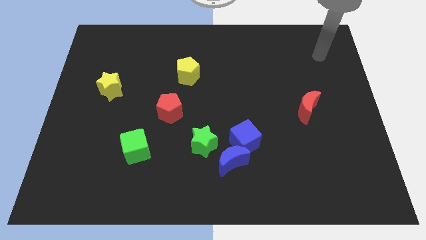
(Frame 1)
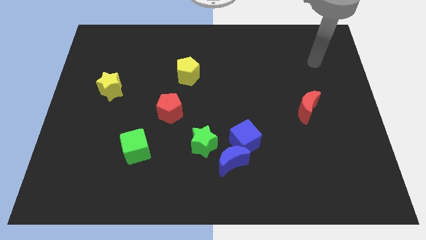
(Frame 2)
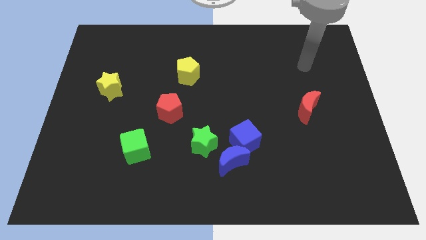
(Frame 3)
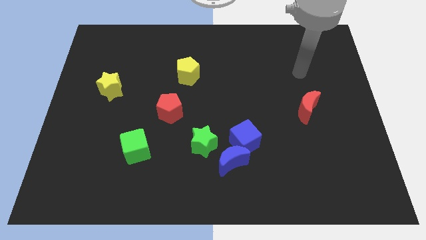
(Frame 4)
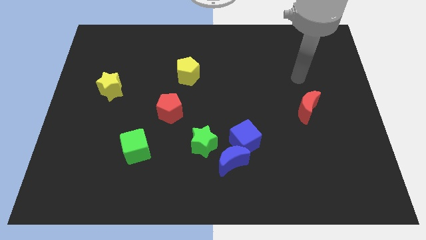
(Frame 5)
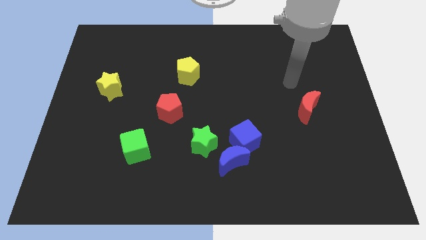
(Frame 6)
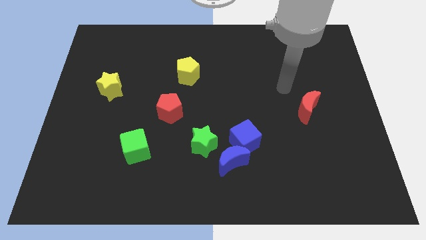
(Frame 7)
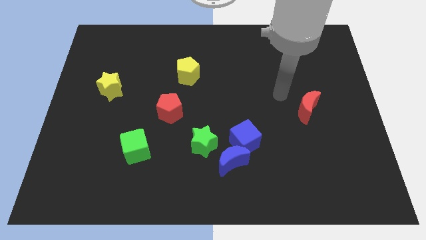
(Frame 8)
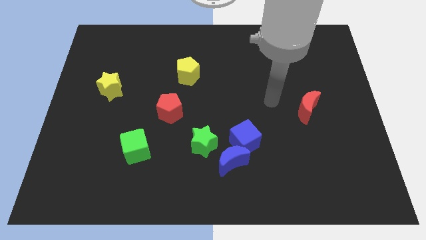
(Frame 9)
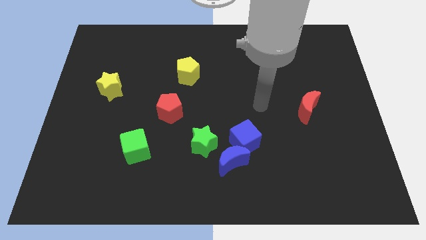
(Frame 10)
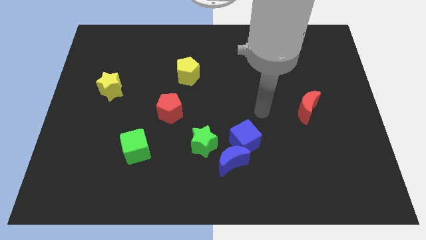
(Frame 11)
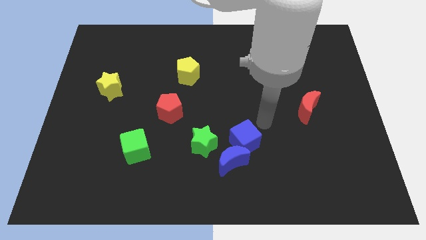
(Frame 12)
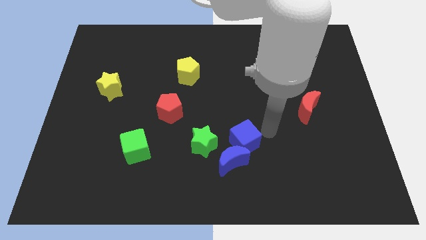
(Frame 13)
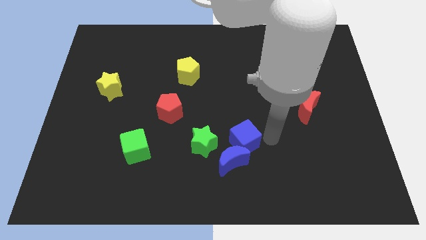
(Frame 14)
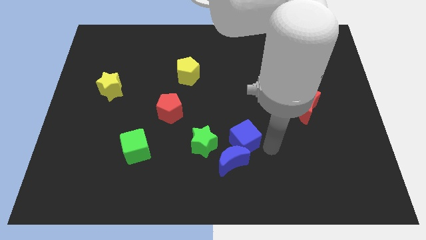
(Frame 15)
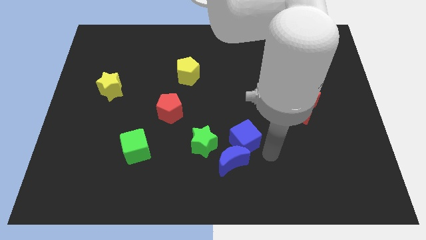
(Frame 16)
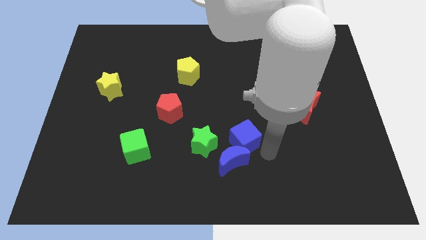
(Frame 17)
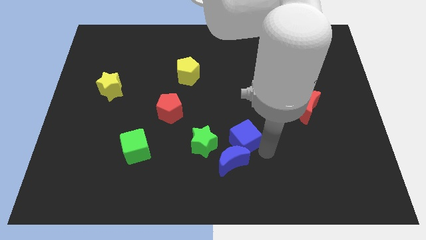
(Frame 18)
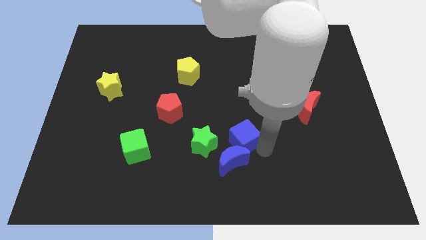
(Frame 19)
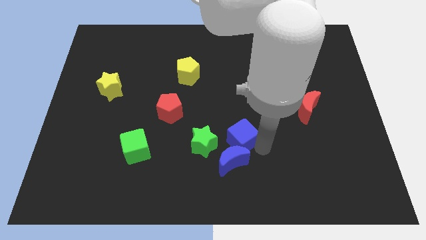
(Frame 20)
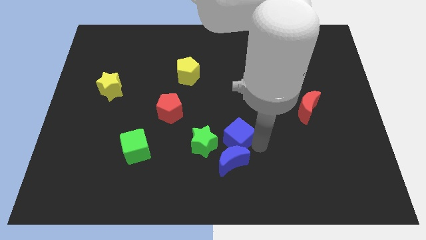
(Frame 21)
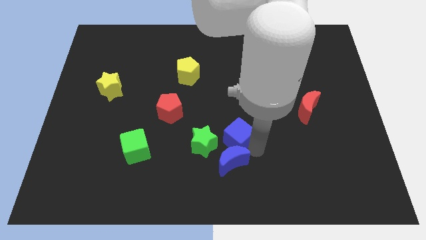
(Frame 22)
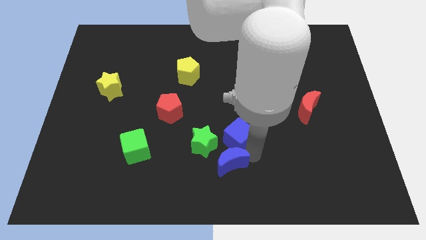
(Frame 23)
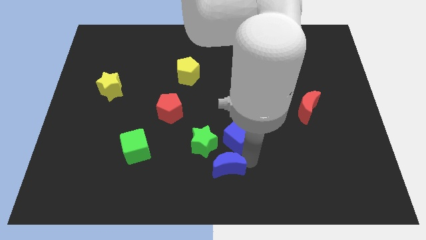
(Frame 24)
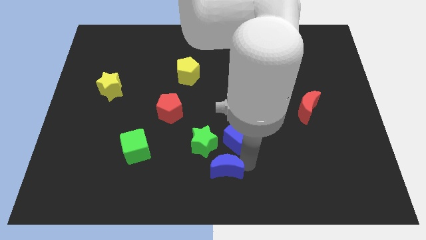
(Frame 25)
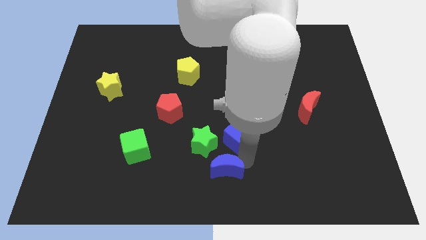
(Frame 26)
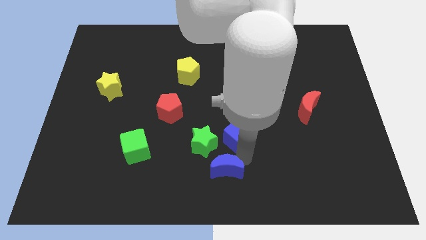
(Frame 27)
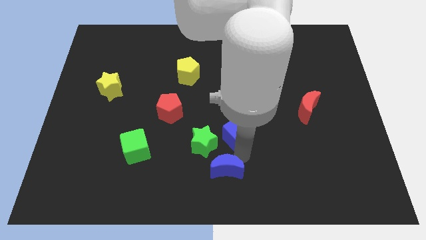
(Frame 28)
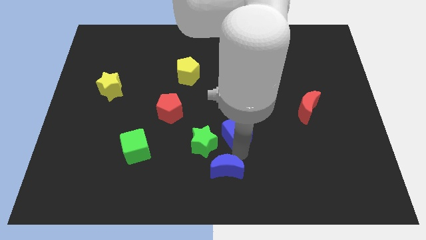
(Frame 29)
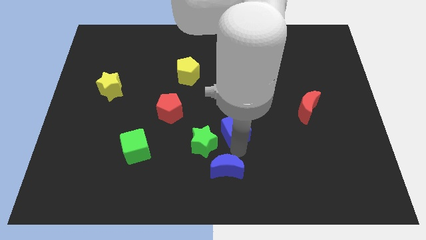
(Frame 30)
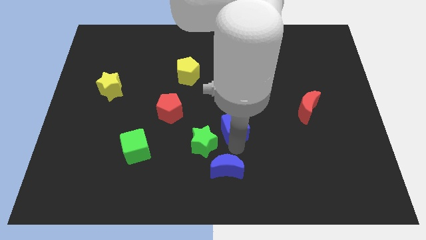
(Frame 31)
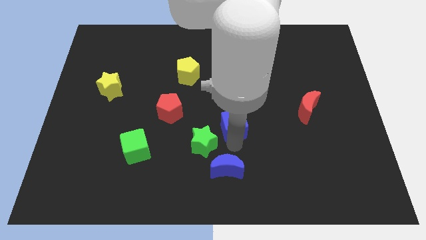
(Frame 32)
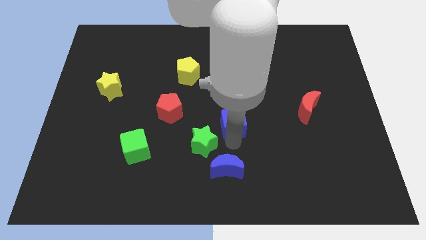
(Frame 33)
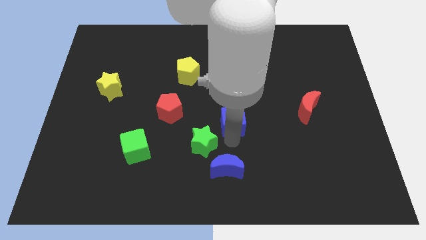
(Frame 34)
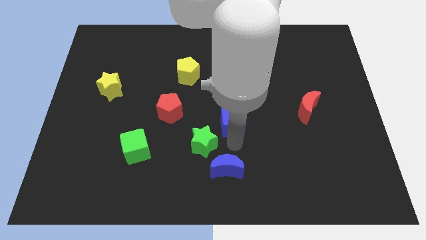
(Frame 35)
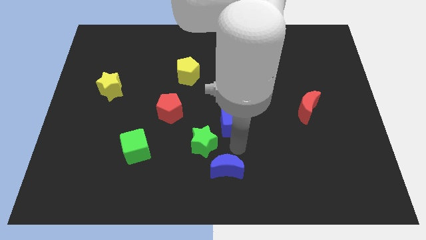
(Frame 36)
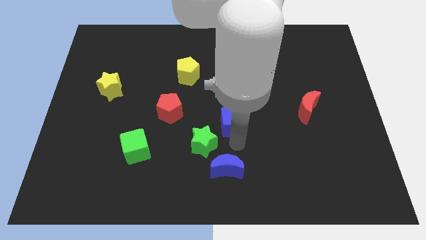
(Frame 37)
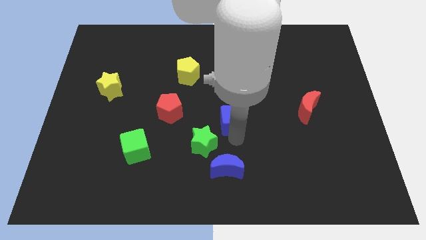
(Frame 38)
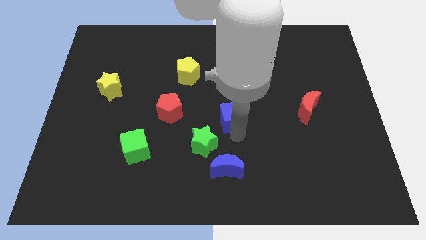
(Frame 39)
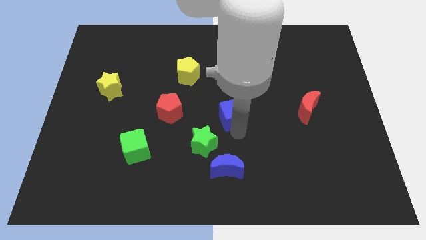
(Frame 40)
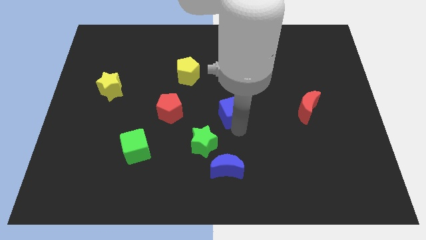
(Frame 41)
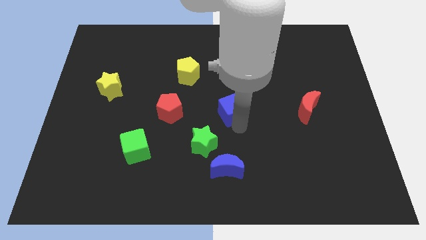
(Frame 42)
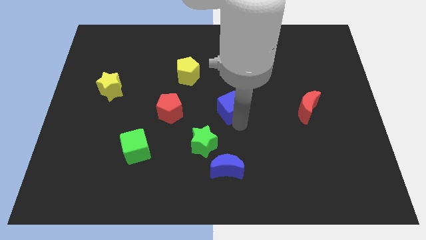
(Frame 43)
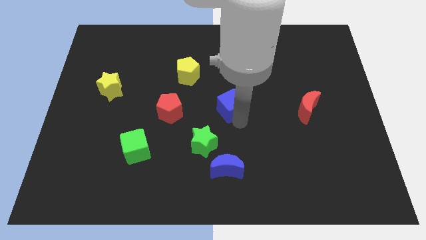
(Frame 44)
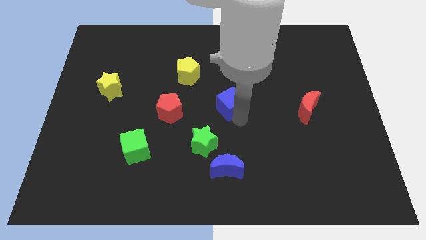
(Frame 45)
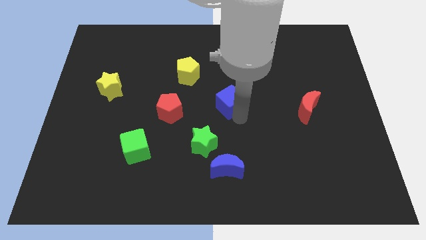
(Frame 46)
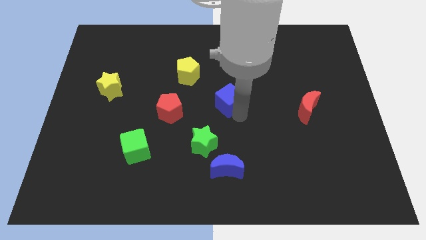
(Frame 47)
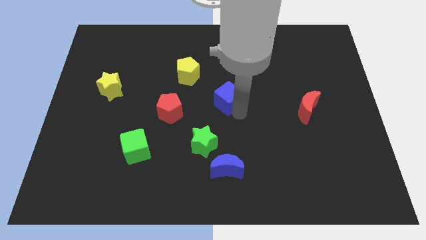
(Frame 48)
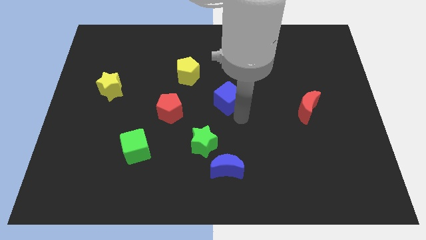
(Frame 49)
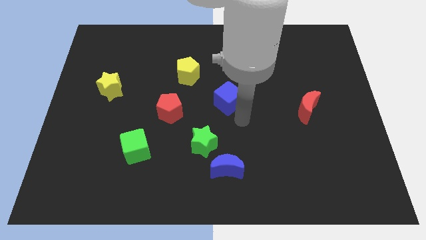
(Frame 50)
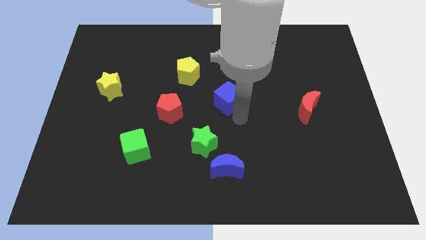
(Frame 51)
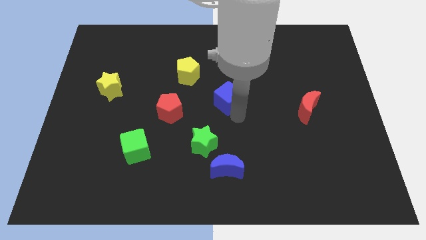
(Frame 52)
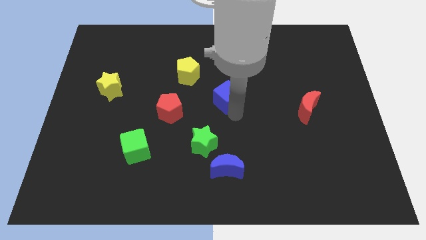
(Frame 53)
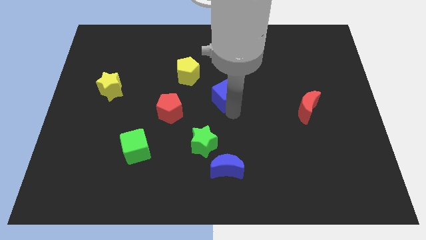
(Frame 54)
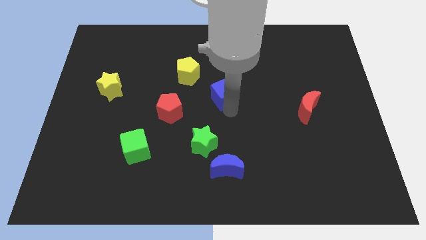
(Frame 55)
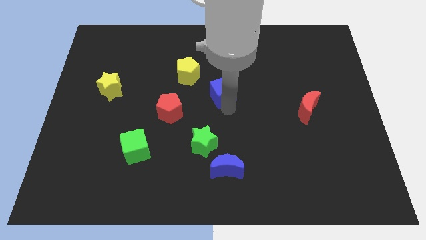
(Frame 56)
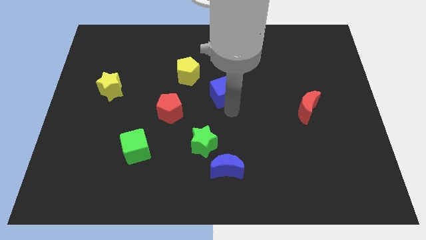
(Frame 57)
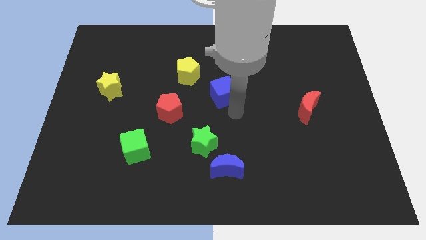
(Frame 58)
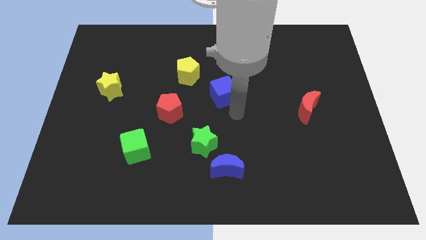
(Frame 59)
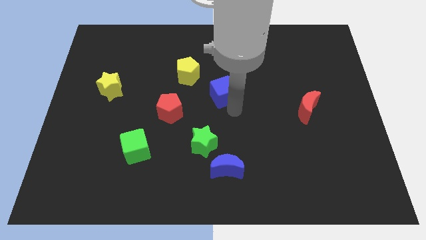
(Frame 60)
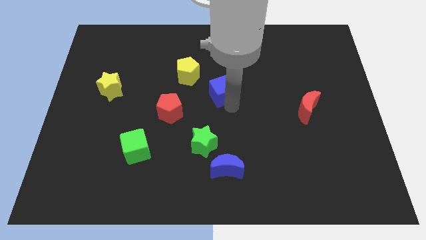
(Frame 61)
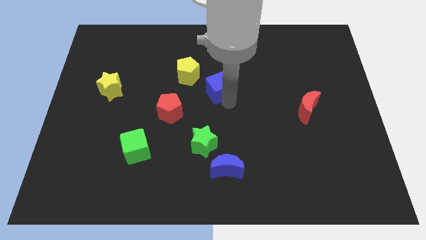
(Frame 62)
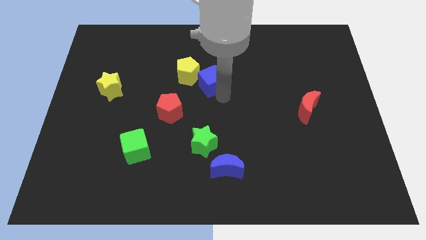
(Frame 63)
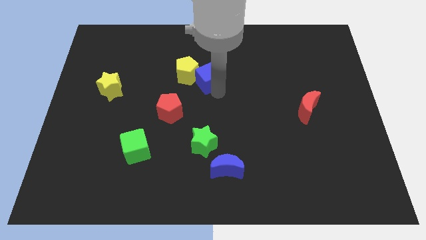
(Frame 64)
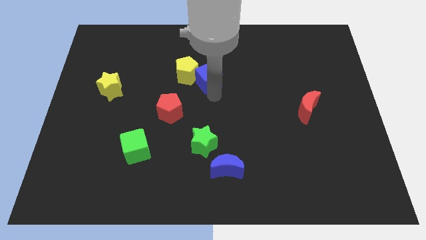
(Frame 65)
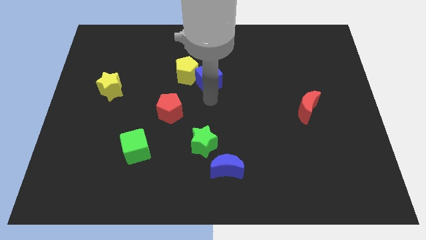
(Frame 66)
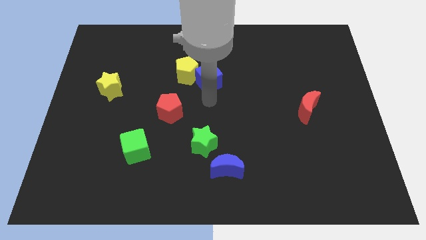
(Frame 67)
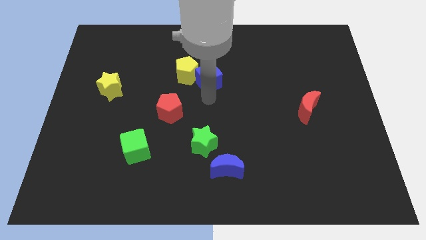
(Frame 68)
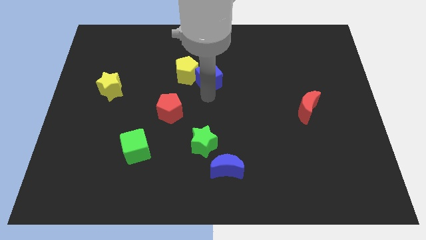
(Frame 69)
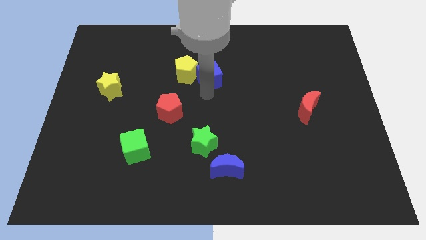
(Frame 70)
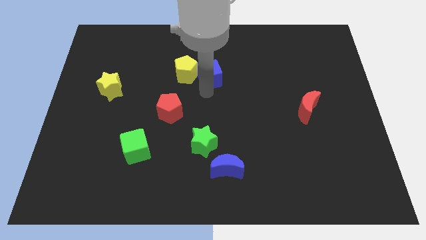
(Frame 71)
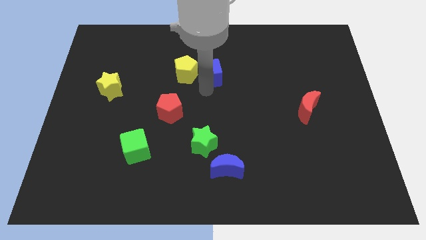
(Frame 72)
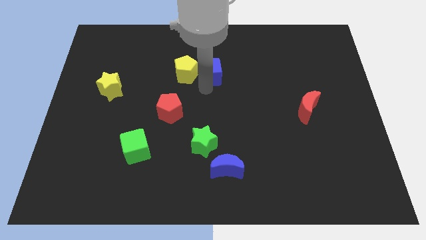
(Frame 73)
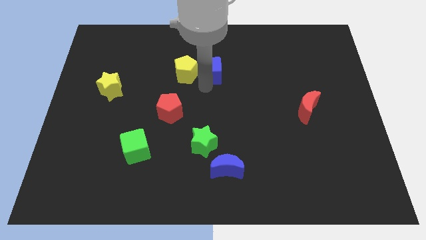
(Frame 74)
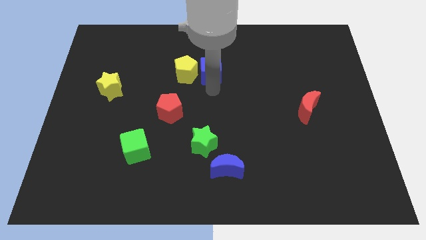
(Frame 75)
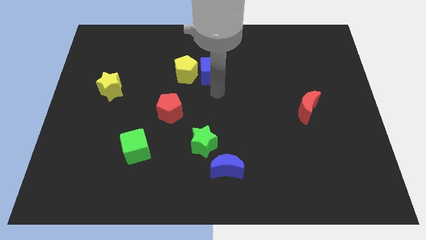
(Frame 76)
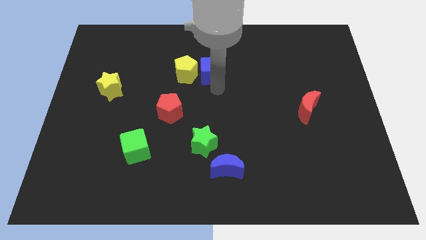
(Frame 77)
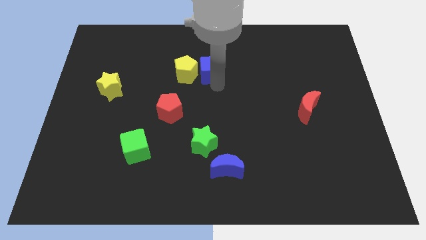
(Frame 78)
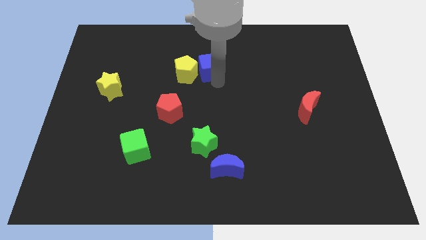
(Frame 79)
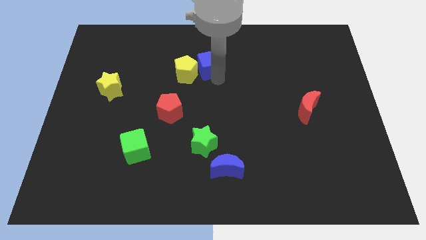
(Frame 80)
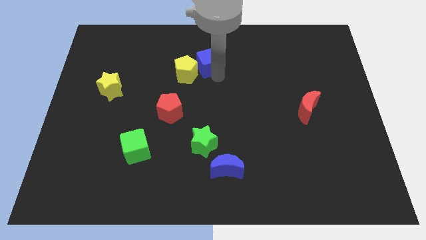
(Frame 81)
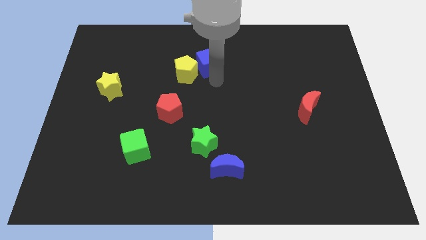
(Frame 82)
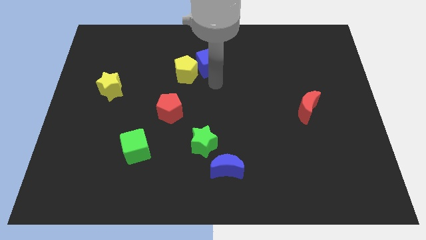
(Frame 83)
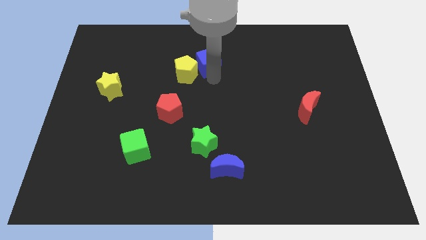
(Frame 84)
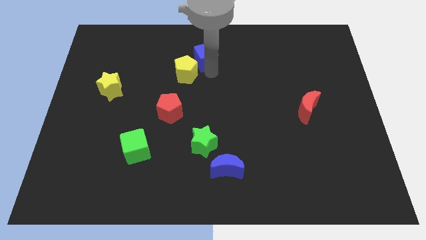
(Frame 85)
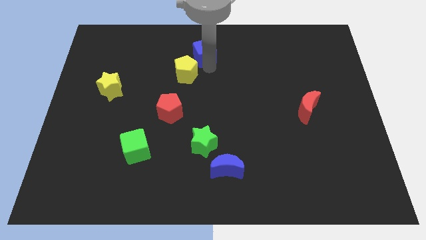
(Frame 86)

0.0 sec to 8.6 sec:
push the blue cube to the towards your base
